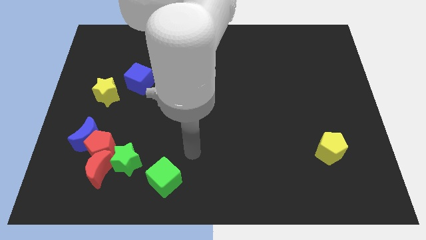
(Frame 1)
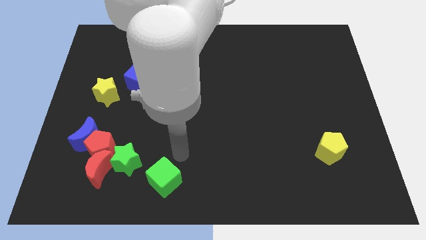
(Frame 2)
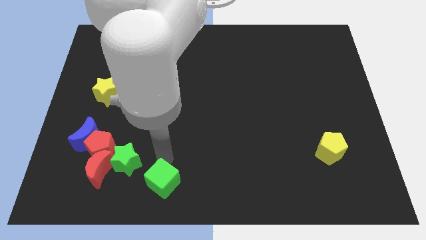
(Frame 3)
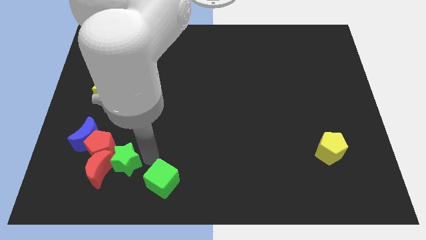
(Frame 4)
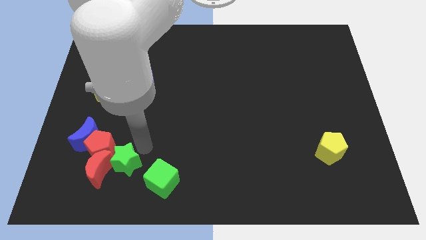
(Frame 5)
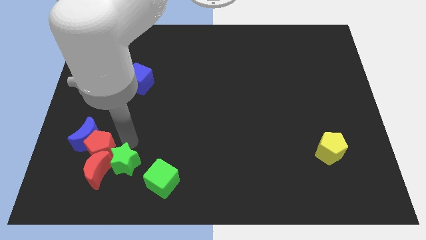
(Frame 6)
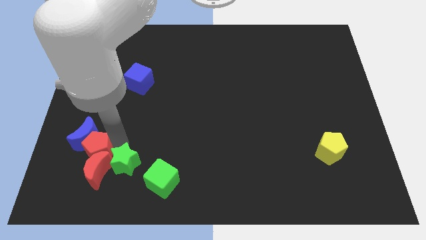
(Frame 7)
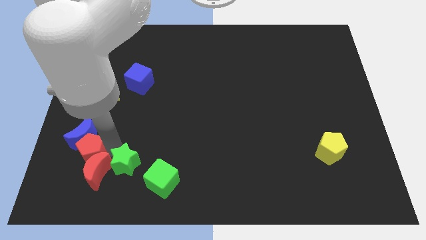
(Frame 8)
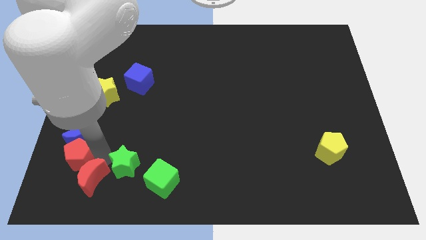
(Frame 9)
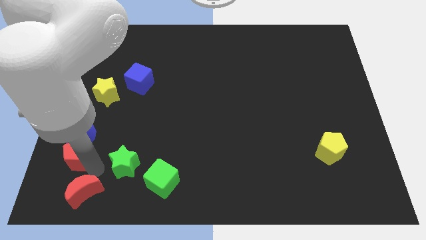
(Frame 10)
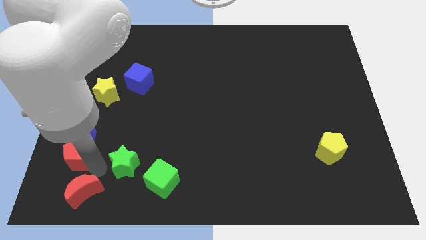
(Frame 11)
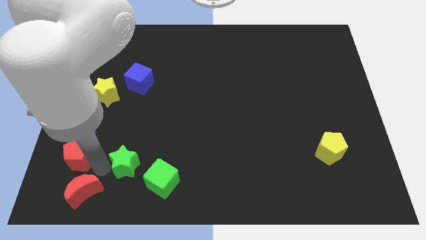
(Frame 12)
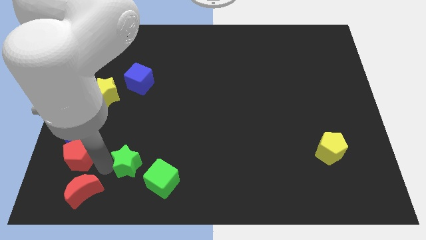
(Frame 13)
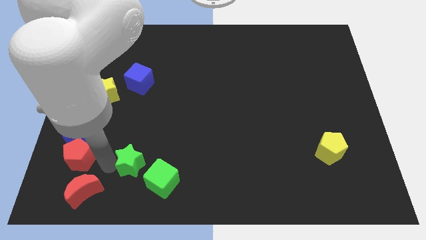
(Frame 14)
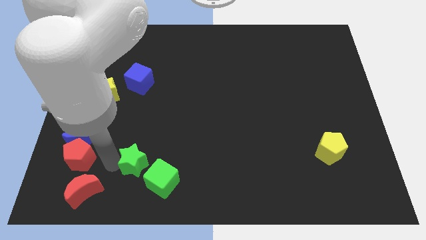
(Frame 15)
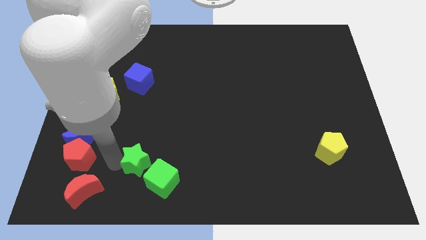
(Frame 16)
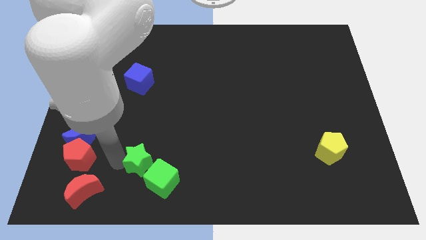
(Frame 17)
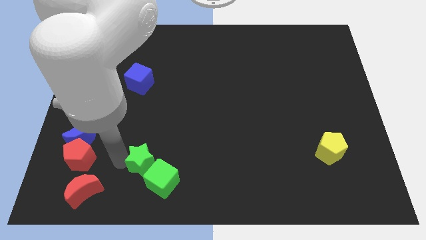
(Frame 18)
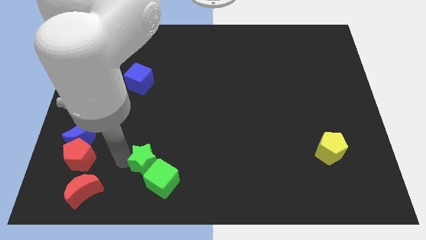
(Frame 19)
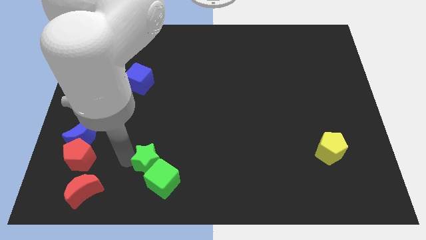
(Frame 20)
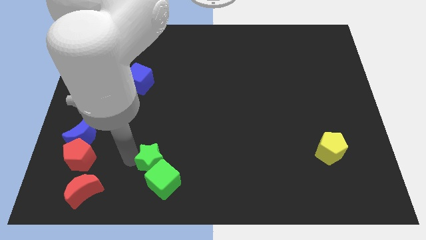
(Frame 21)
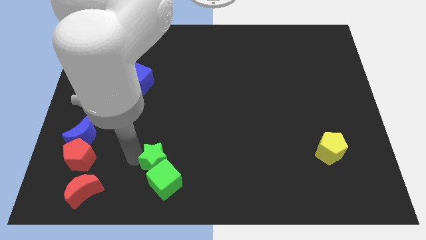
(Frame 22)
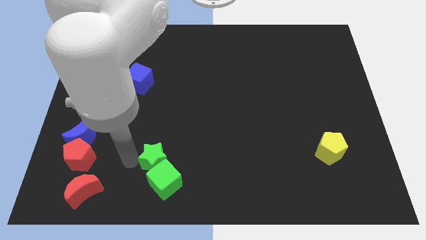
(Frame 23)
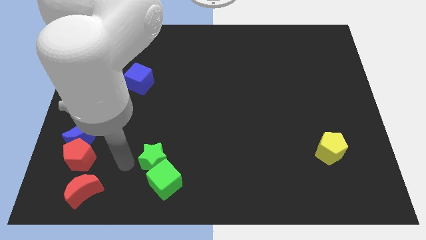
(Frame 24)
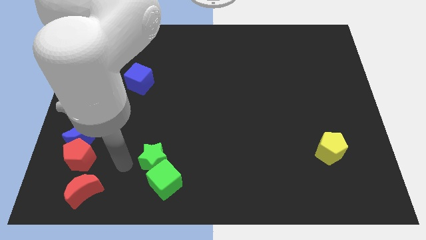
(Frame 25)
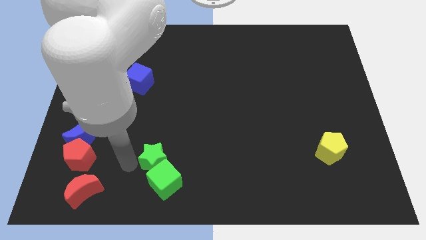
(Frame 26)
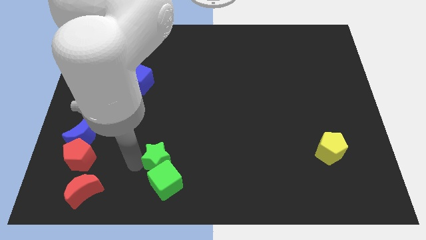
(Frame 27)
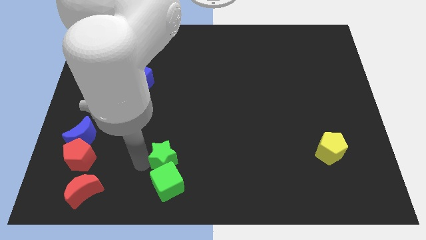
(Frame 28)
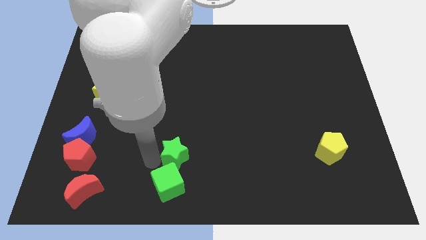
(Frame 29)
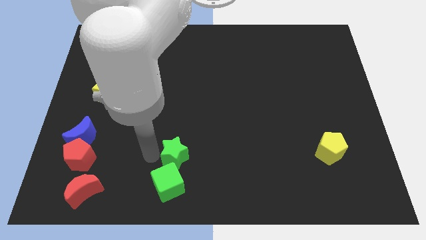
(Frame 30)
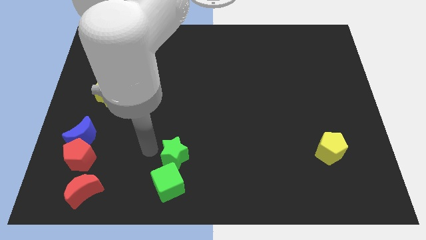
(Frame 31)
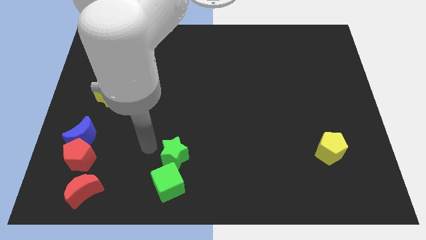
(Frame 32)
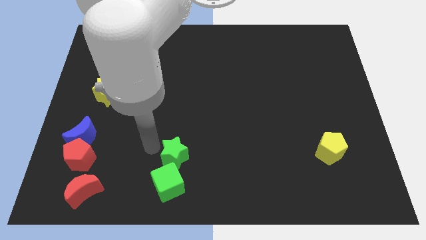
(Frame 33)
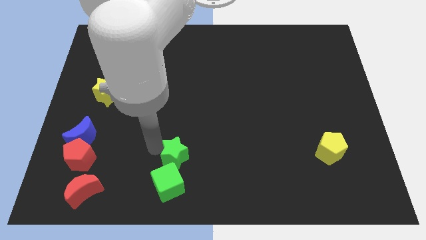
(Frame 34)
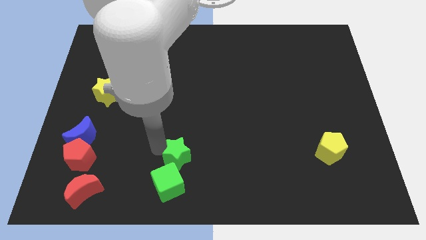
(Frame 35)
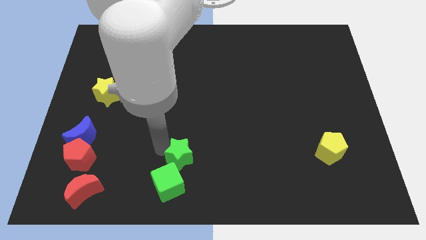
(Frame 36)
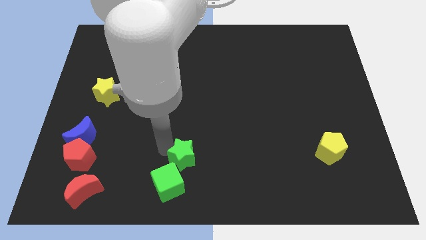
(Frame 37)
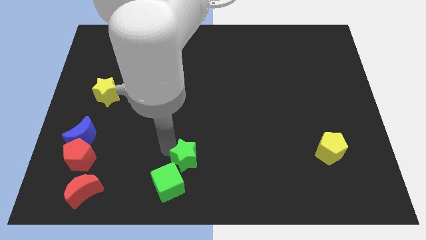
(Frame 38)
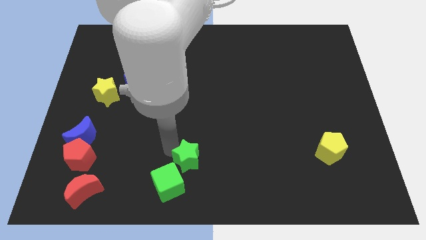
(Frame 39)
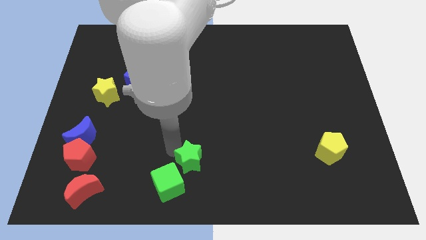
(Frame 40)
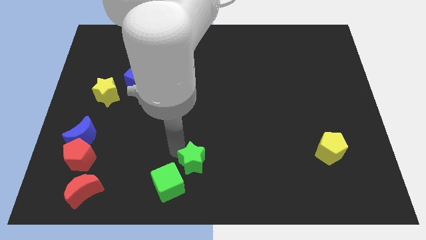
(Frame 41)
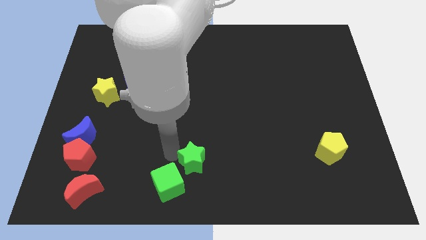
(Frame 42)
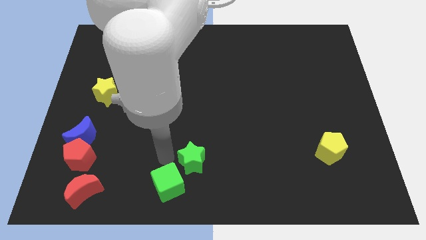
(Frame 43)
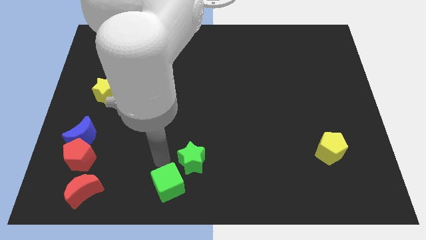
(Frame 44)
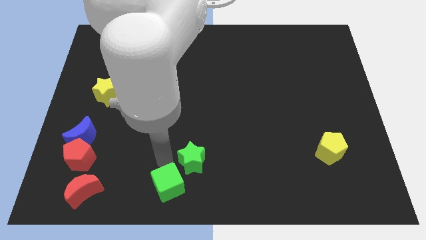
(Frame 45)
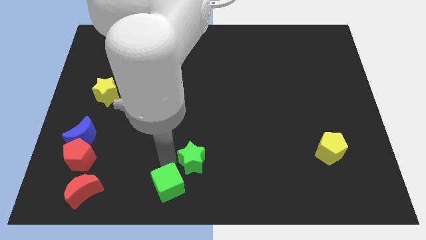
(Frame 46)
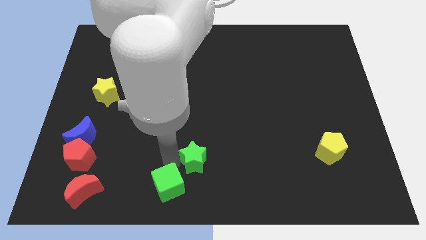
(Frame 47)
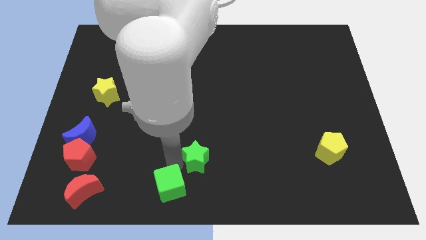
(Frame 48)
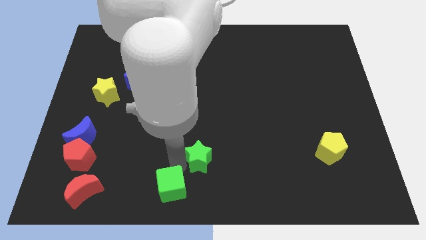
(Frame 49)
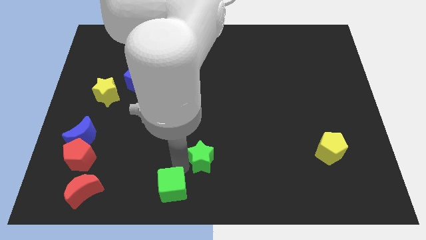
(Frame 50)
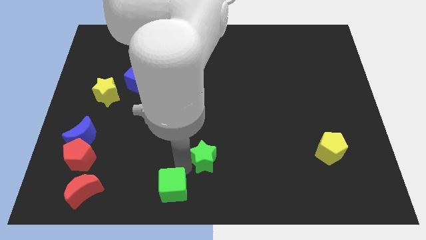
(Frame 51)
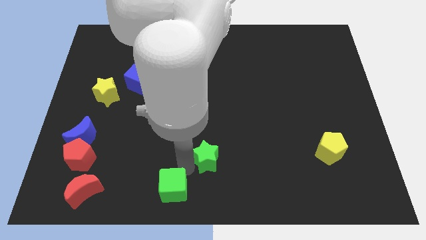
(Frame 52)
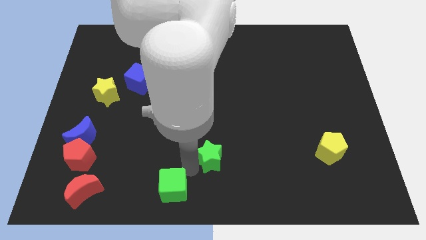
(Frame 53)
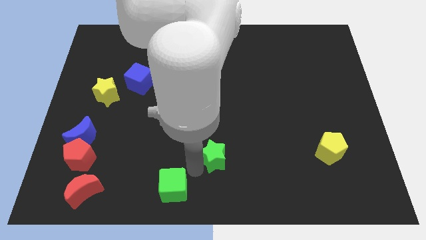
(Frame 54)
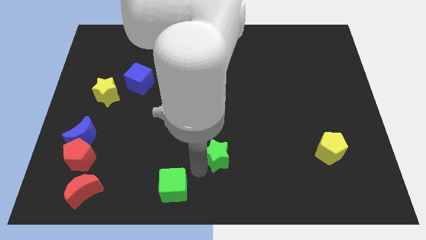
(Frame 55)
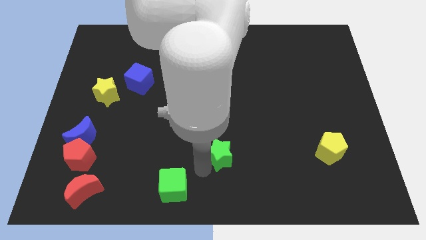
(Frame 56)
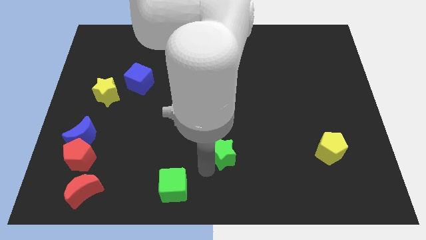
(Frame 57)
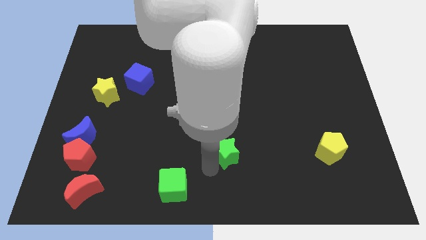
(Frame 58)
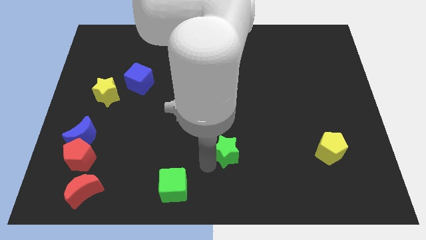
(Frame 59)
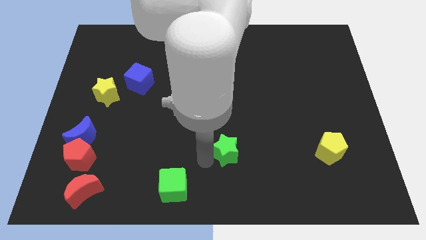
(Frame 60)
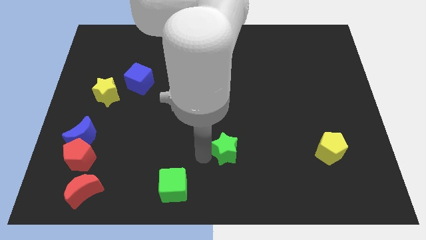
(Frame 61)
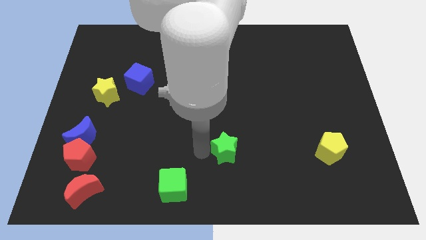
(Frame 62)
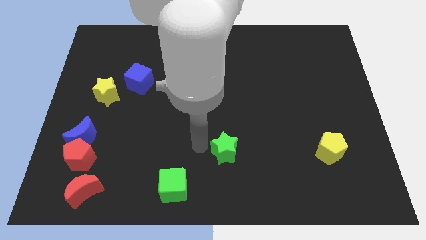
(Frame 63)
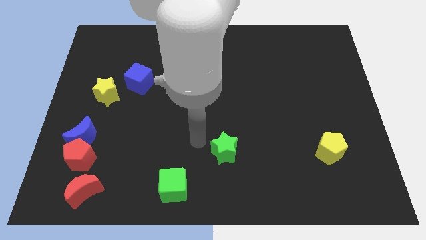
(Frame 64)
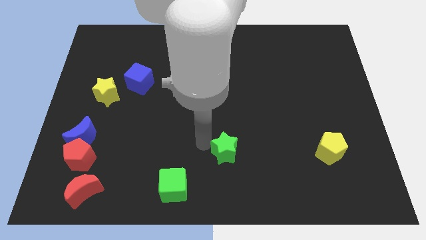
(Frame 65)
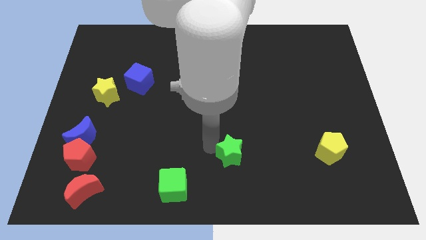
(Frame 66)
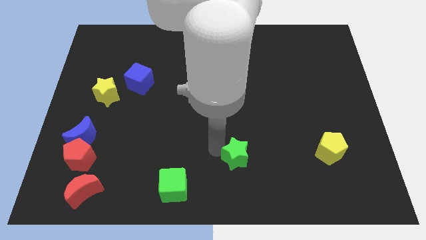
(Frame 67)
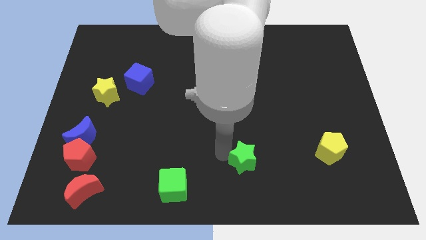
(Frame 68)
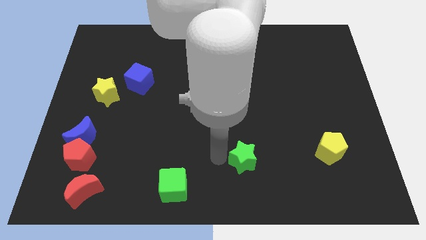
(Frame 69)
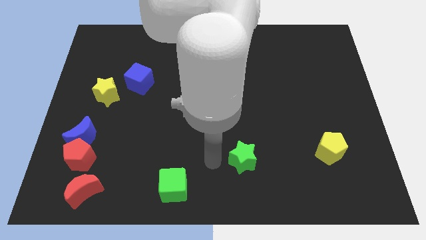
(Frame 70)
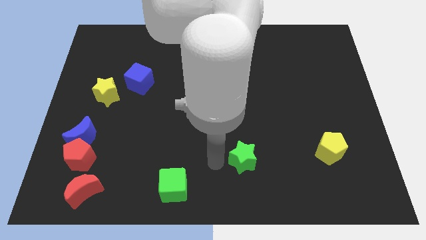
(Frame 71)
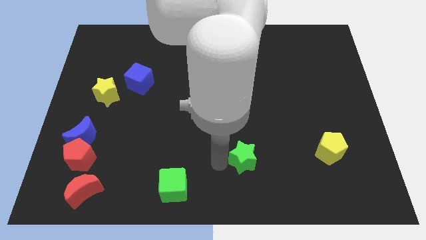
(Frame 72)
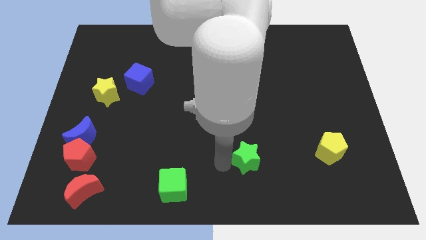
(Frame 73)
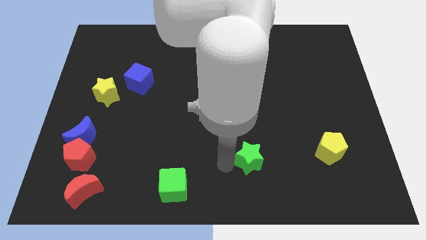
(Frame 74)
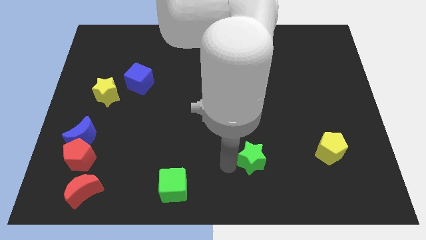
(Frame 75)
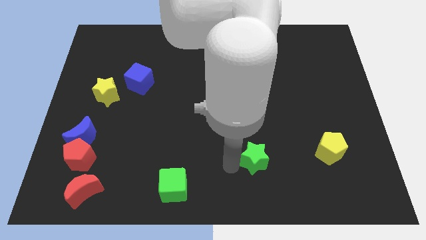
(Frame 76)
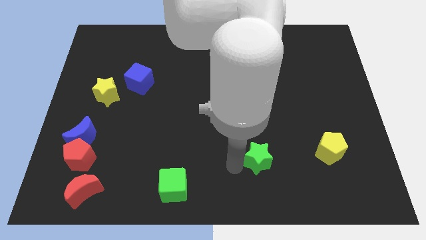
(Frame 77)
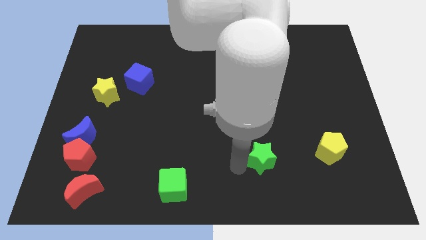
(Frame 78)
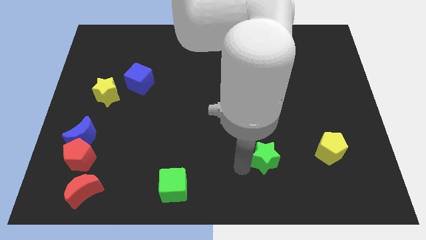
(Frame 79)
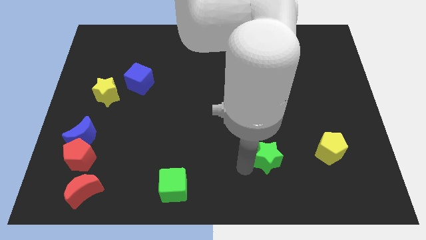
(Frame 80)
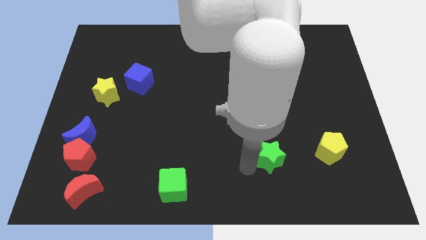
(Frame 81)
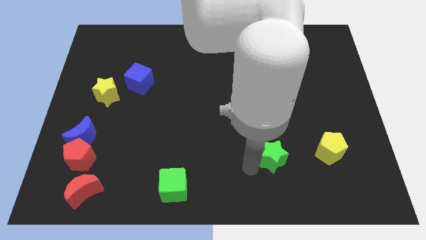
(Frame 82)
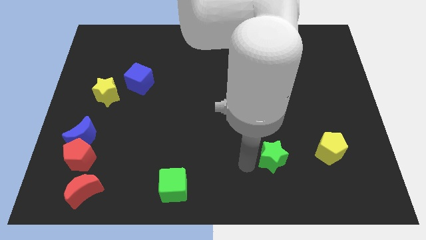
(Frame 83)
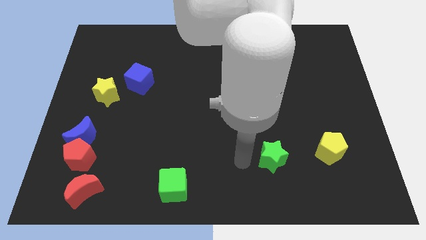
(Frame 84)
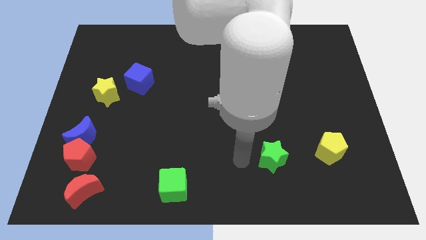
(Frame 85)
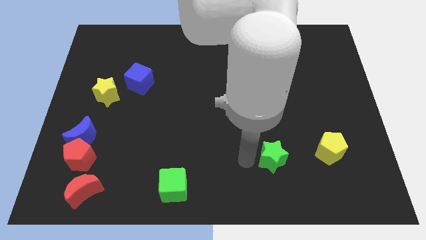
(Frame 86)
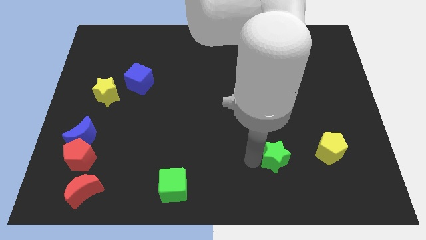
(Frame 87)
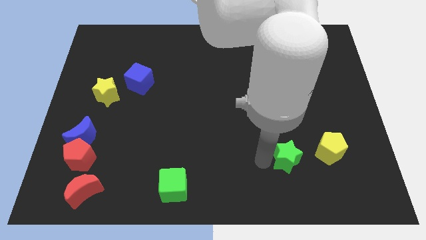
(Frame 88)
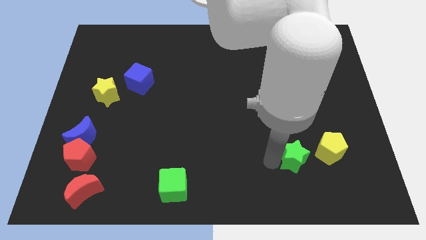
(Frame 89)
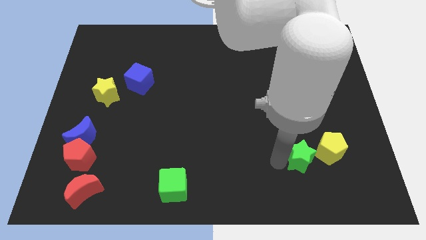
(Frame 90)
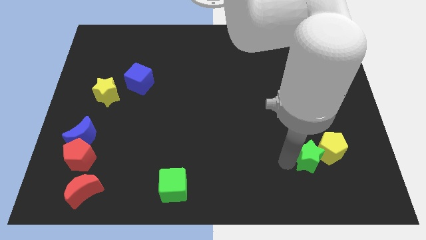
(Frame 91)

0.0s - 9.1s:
push the green star next to the yellow pentagon
